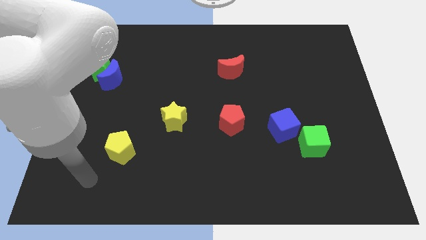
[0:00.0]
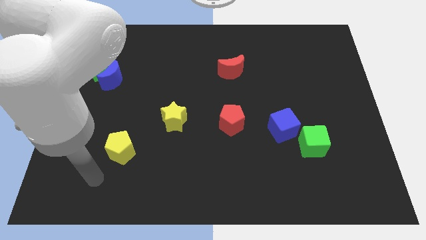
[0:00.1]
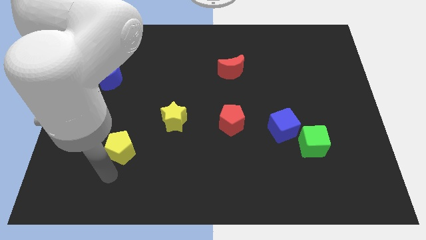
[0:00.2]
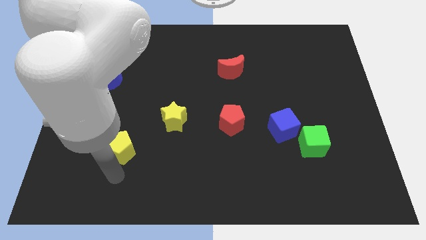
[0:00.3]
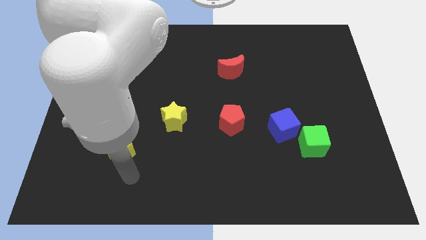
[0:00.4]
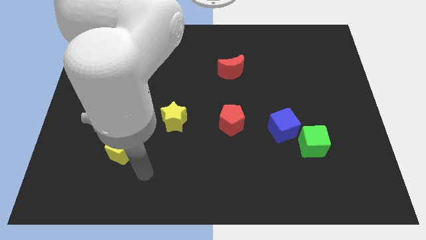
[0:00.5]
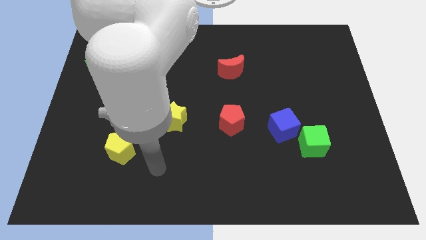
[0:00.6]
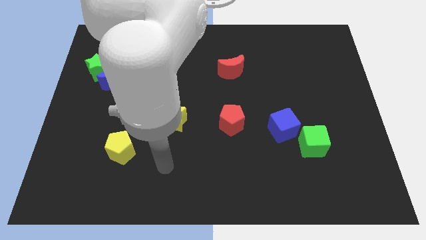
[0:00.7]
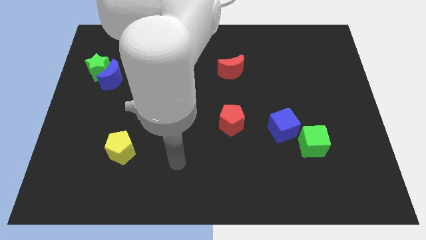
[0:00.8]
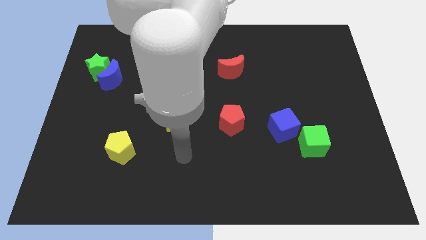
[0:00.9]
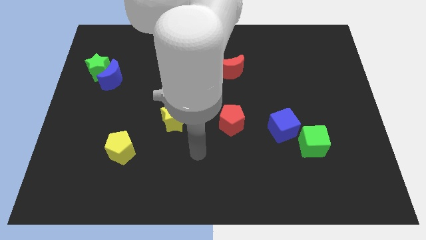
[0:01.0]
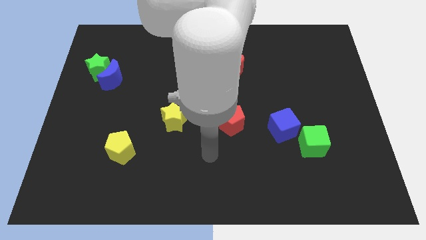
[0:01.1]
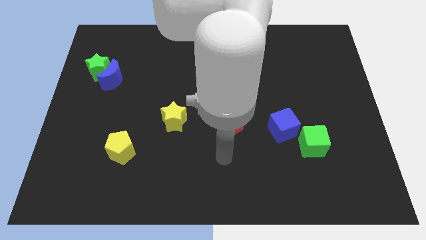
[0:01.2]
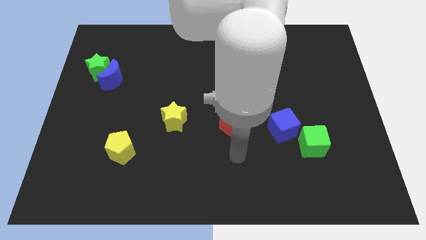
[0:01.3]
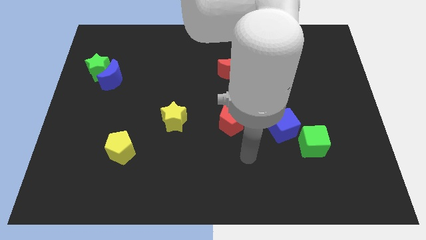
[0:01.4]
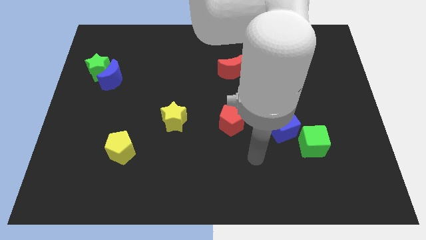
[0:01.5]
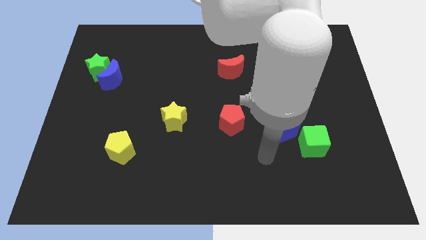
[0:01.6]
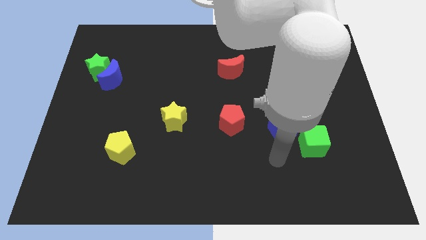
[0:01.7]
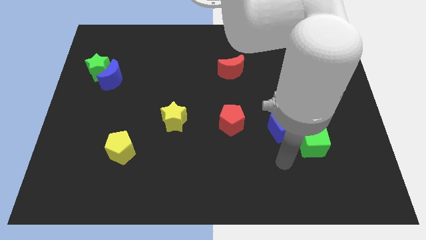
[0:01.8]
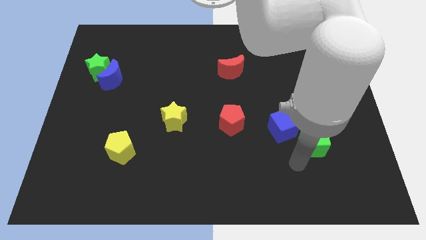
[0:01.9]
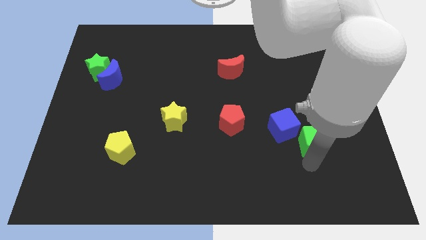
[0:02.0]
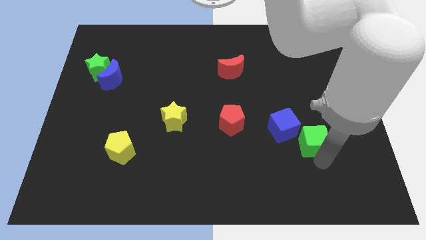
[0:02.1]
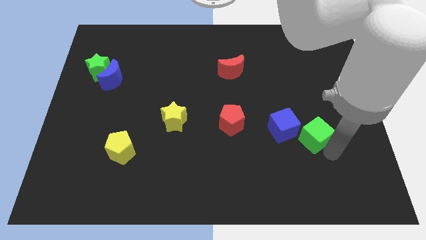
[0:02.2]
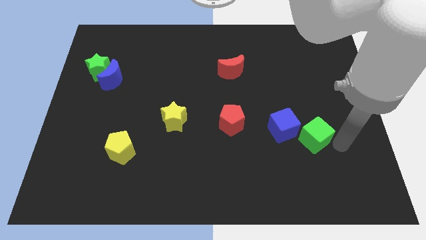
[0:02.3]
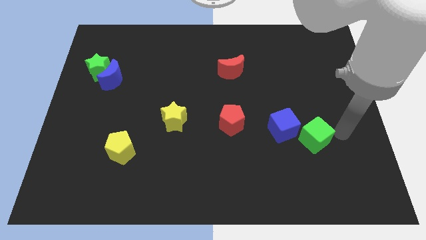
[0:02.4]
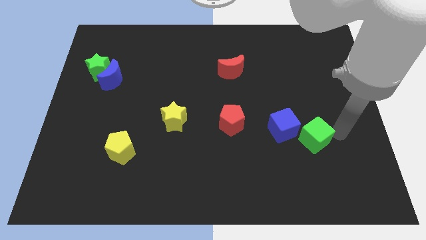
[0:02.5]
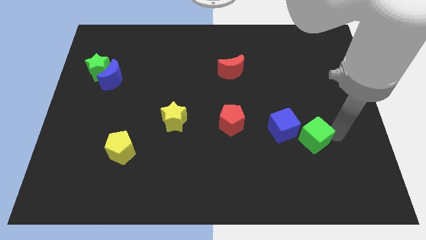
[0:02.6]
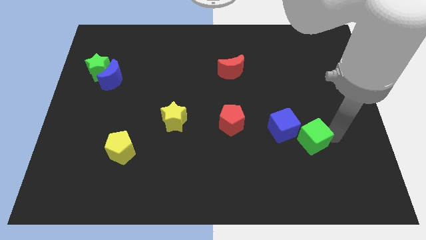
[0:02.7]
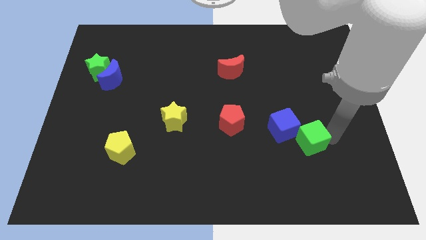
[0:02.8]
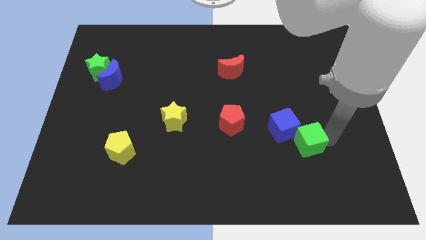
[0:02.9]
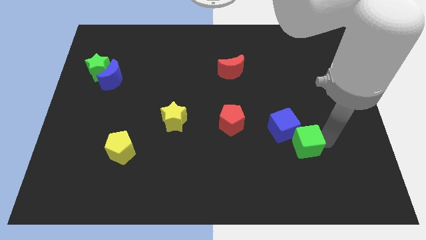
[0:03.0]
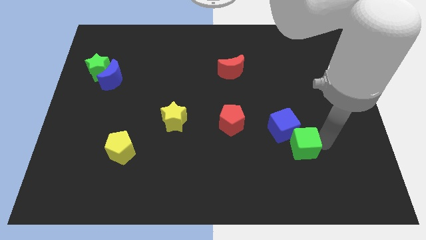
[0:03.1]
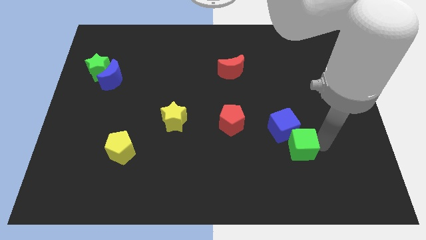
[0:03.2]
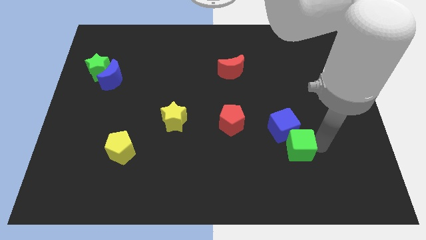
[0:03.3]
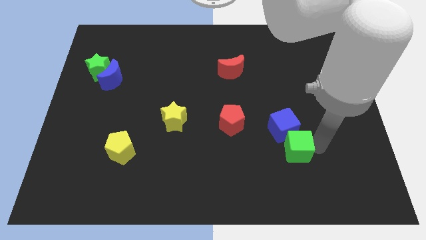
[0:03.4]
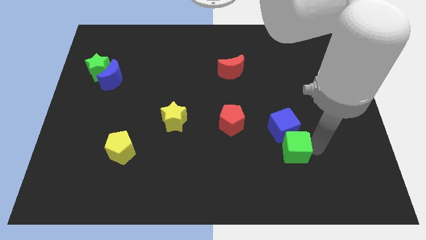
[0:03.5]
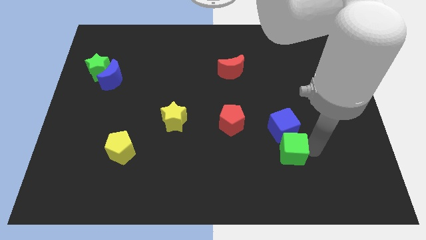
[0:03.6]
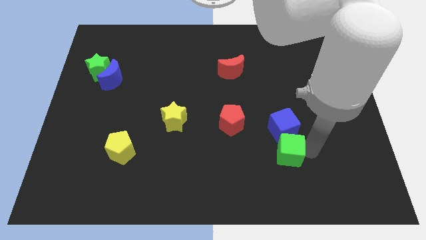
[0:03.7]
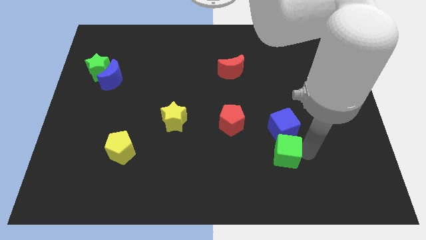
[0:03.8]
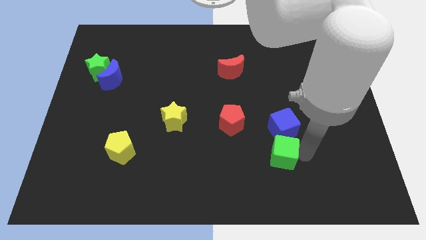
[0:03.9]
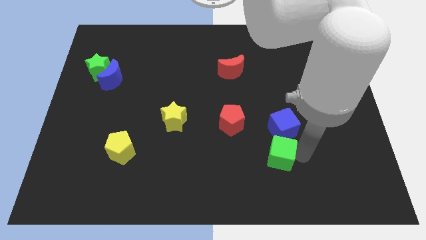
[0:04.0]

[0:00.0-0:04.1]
move the green cube to the left somewhat

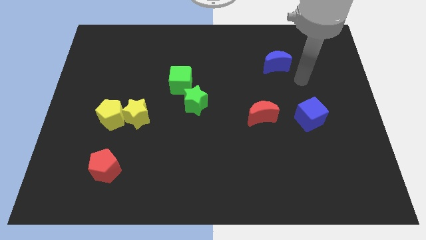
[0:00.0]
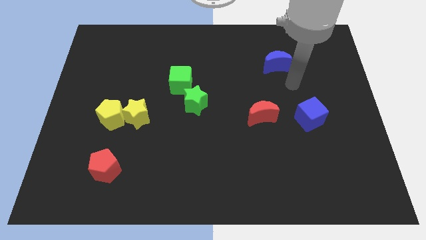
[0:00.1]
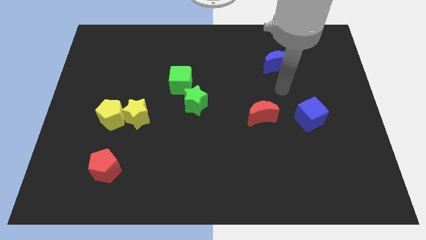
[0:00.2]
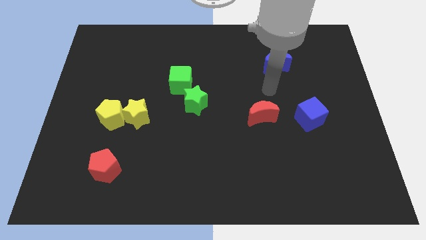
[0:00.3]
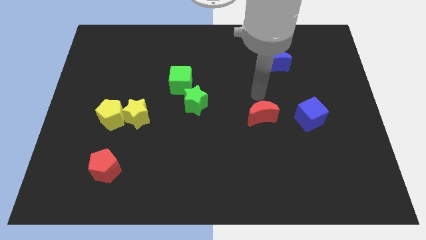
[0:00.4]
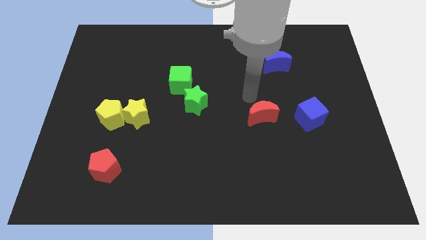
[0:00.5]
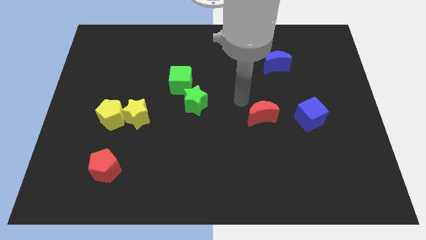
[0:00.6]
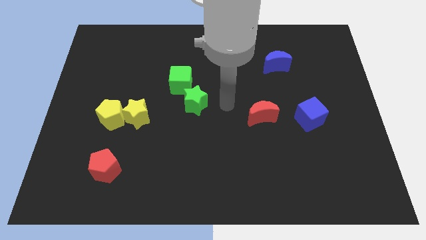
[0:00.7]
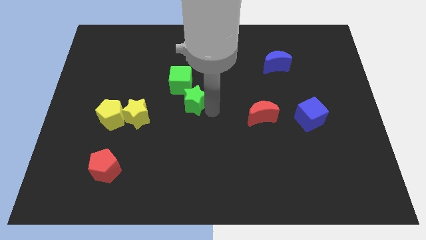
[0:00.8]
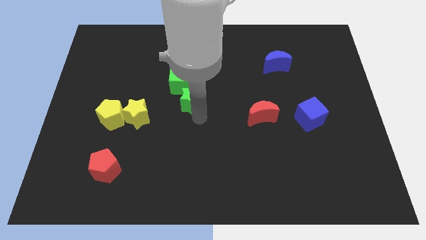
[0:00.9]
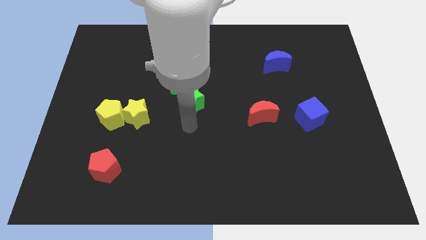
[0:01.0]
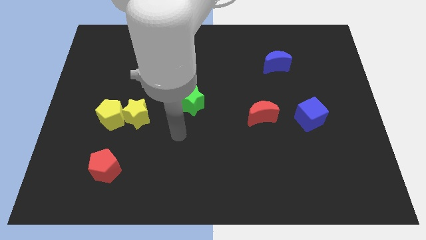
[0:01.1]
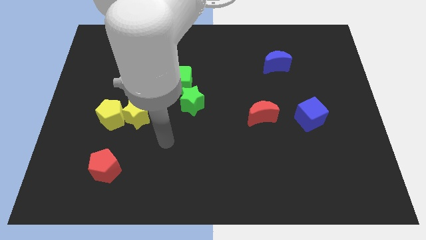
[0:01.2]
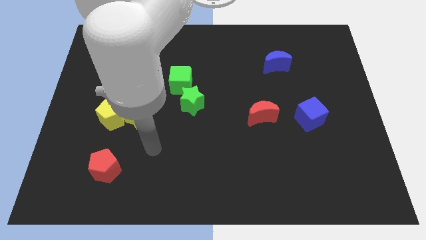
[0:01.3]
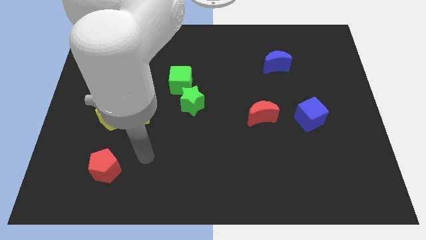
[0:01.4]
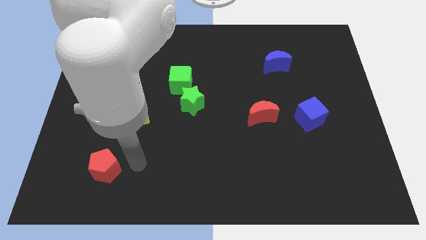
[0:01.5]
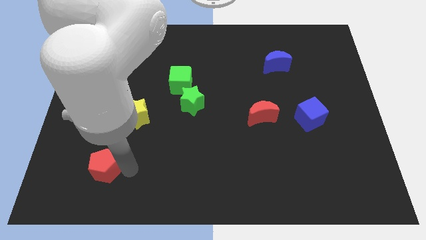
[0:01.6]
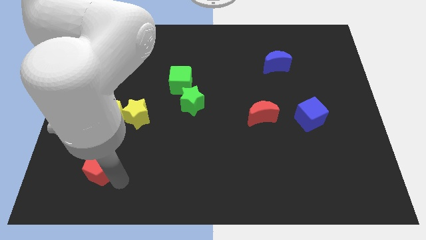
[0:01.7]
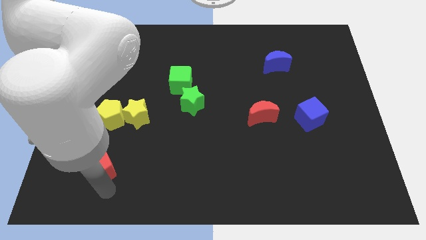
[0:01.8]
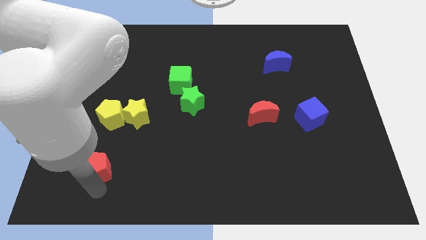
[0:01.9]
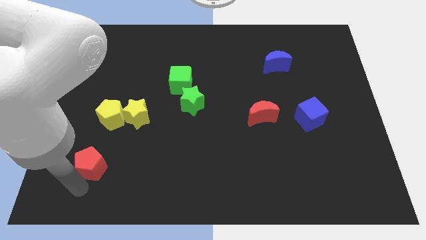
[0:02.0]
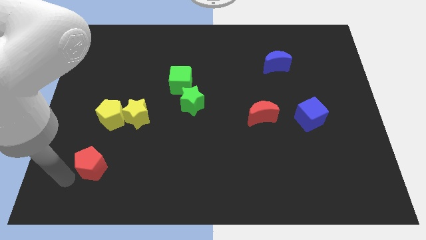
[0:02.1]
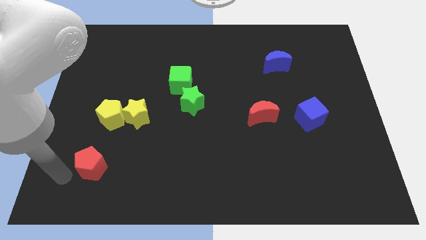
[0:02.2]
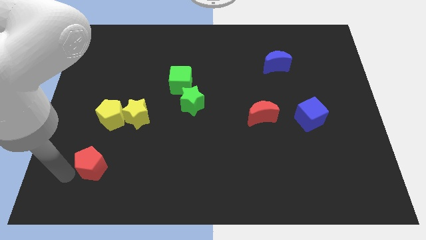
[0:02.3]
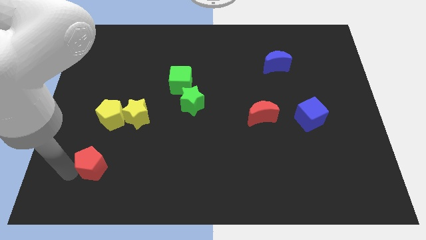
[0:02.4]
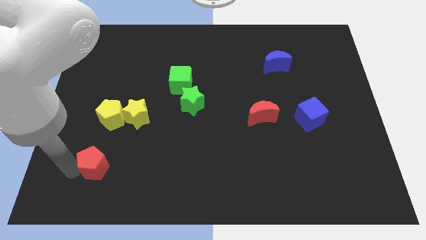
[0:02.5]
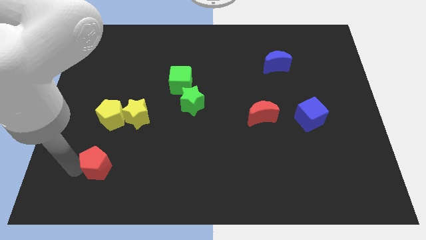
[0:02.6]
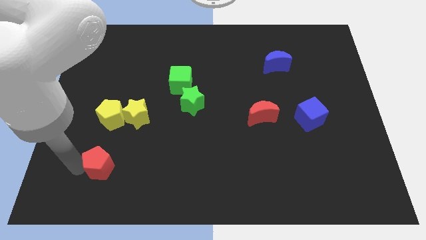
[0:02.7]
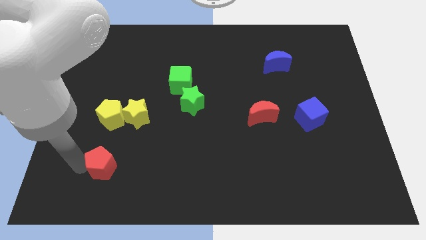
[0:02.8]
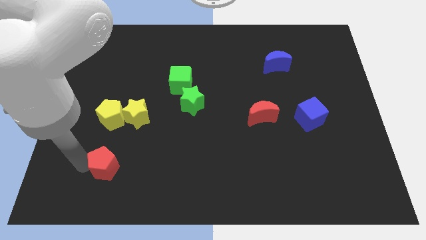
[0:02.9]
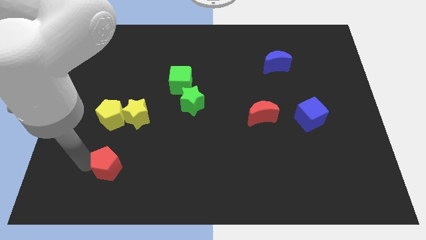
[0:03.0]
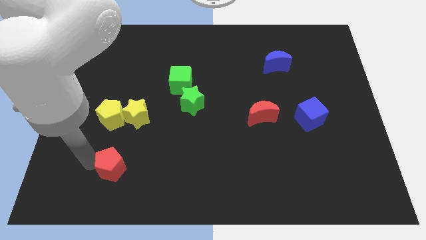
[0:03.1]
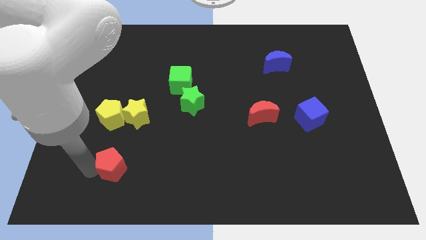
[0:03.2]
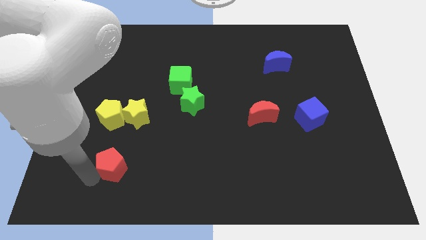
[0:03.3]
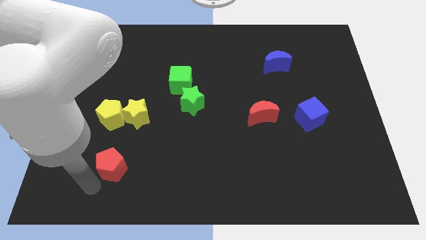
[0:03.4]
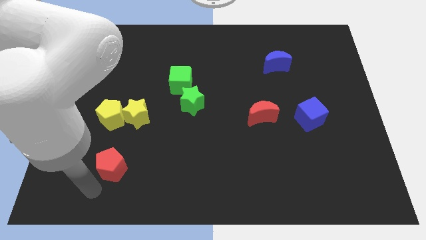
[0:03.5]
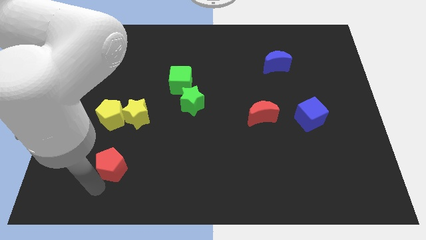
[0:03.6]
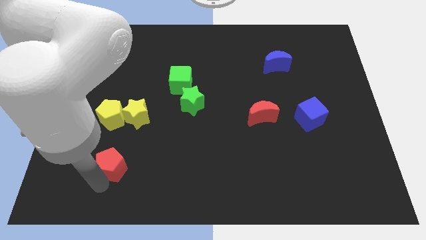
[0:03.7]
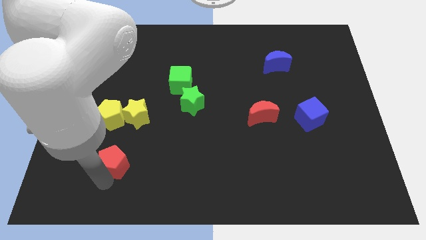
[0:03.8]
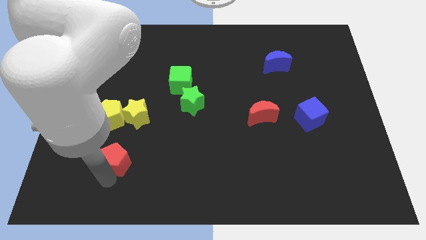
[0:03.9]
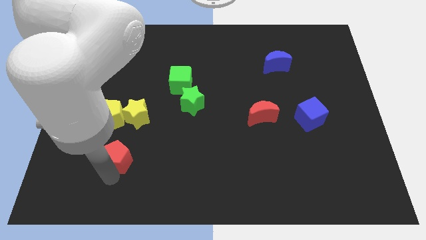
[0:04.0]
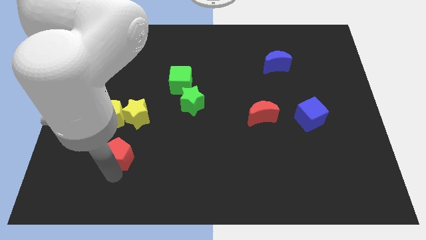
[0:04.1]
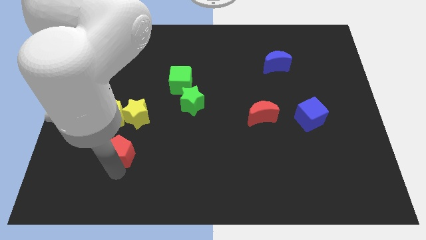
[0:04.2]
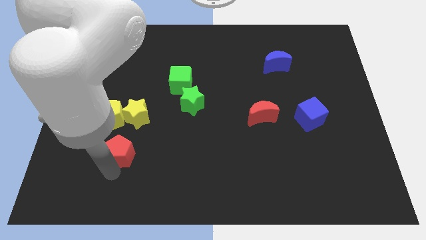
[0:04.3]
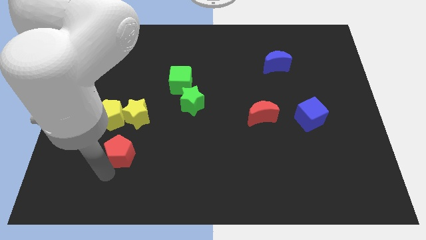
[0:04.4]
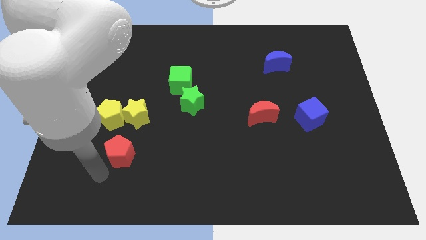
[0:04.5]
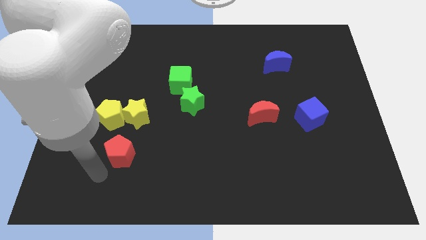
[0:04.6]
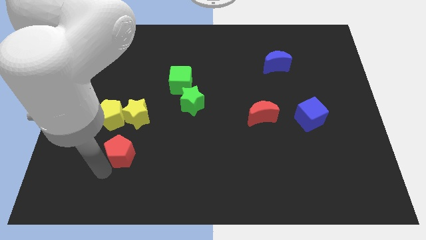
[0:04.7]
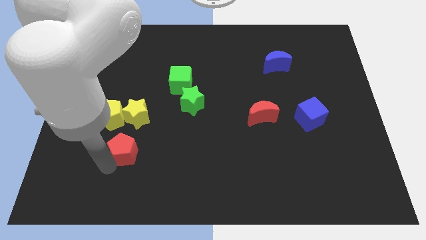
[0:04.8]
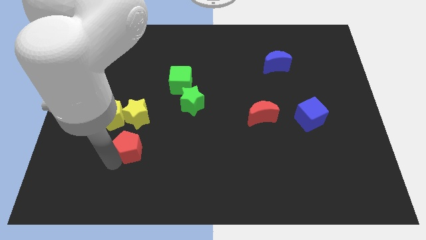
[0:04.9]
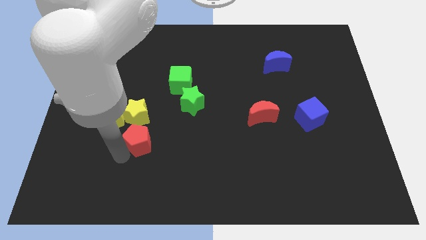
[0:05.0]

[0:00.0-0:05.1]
slightly move the red pentagon up and to the right diagonally
